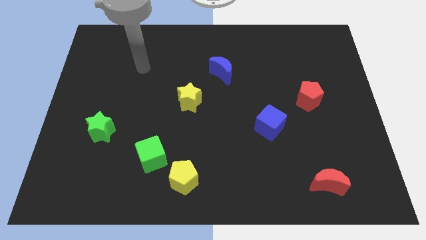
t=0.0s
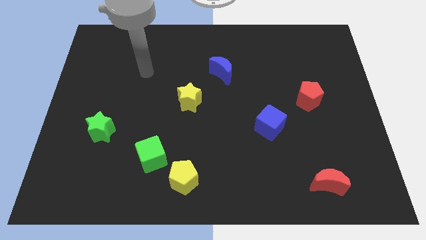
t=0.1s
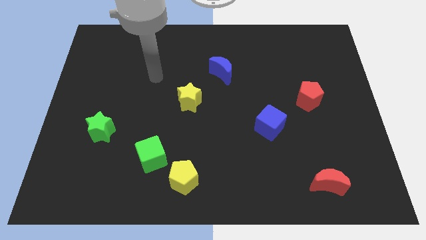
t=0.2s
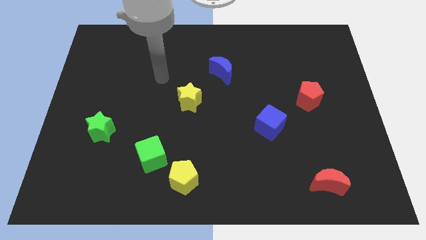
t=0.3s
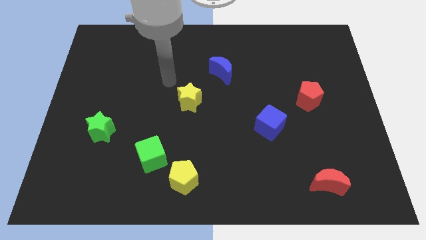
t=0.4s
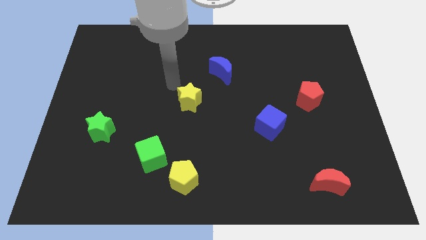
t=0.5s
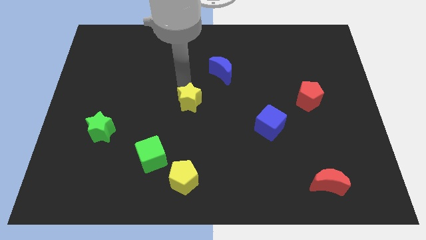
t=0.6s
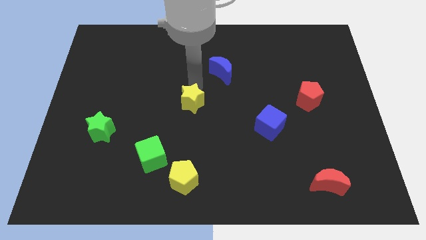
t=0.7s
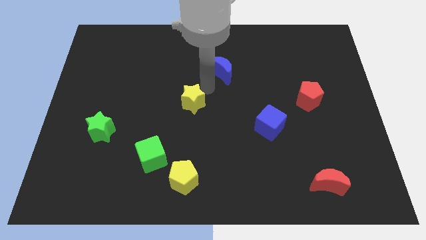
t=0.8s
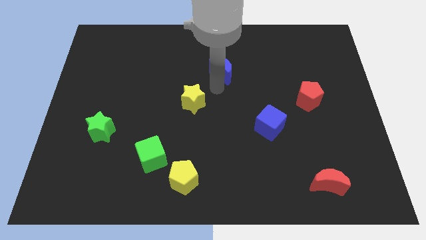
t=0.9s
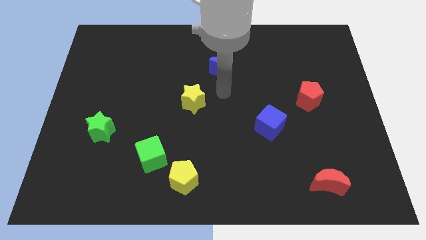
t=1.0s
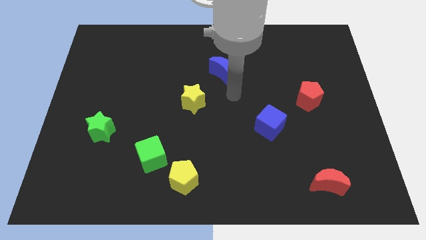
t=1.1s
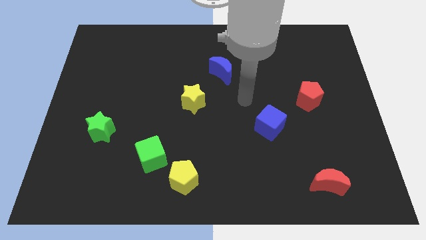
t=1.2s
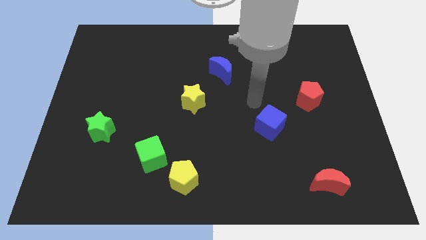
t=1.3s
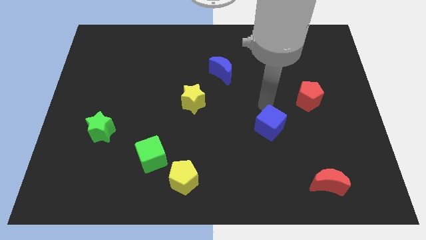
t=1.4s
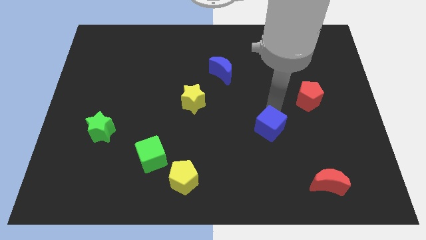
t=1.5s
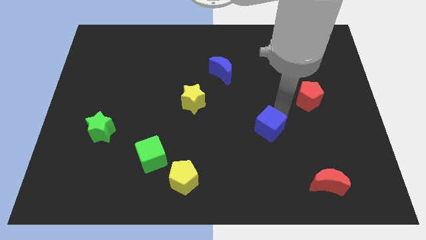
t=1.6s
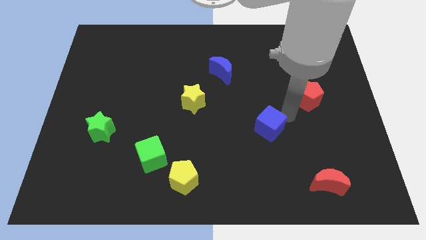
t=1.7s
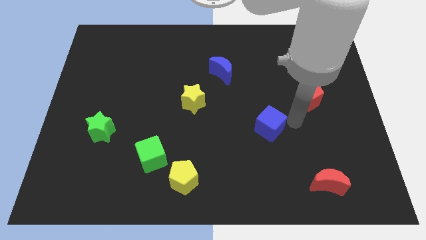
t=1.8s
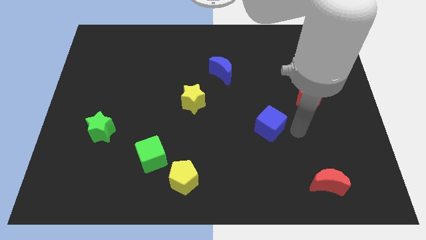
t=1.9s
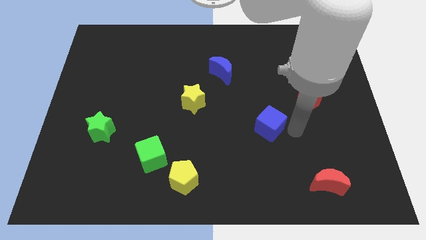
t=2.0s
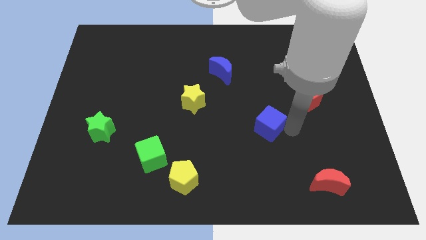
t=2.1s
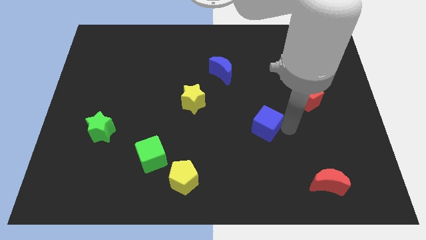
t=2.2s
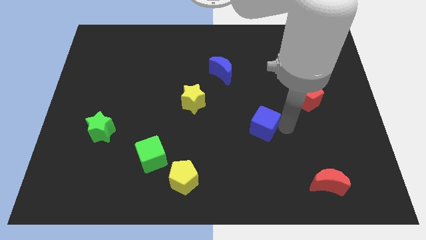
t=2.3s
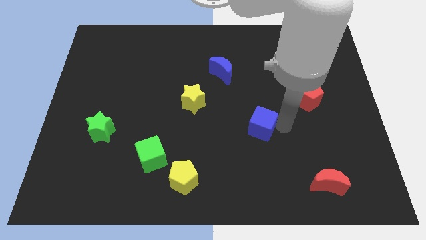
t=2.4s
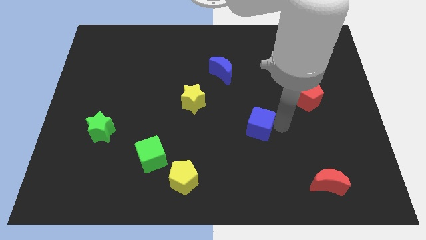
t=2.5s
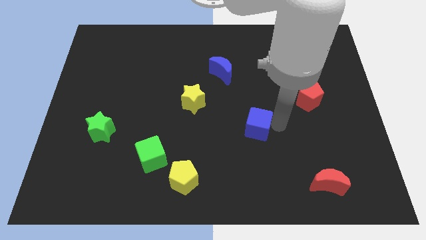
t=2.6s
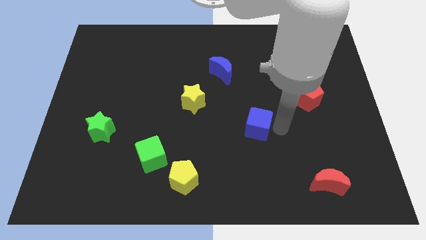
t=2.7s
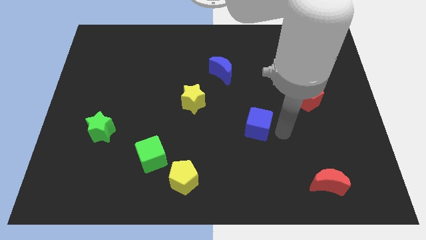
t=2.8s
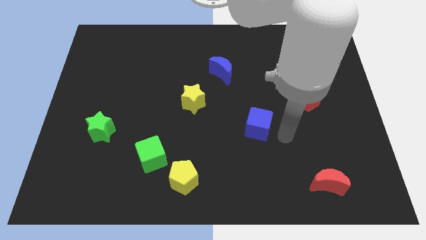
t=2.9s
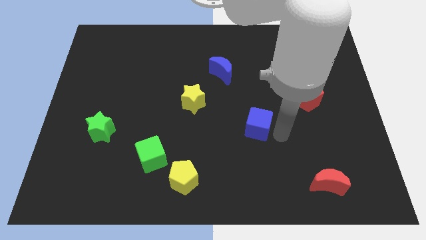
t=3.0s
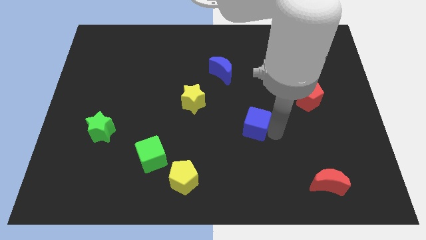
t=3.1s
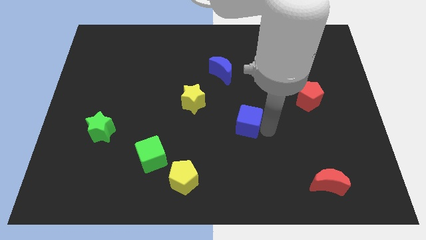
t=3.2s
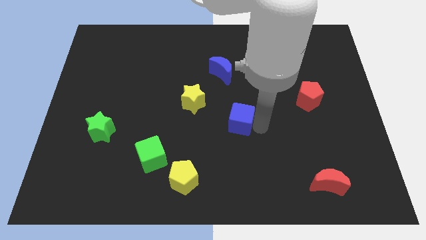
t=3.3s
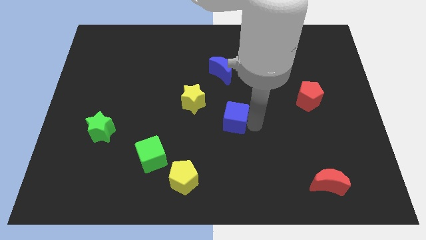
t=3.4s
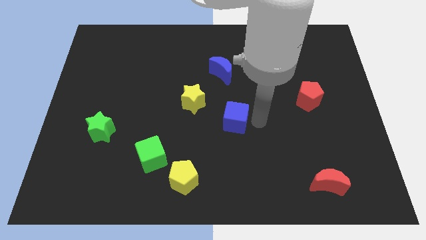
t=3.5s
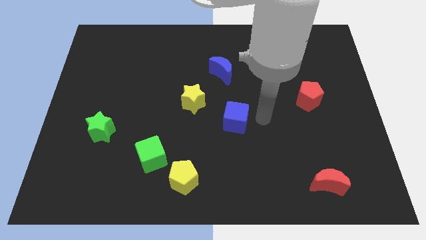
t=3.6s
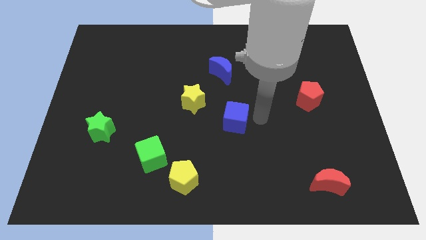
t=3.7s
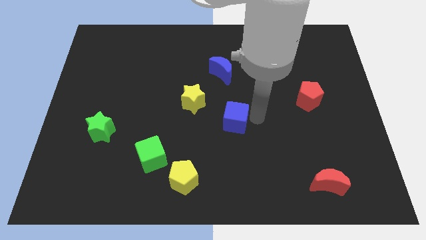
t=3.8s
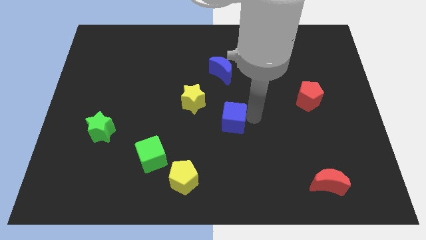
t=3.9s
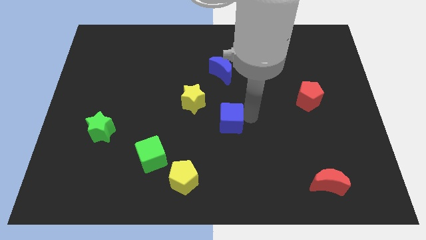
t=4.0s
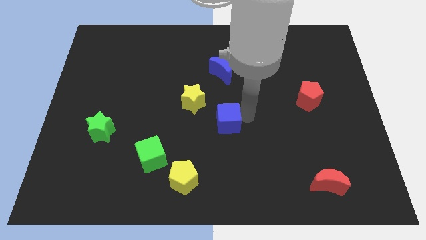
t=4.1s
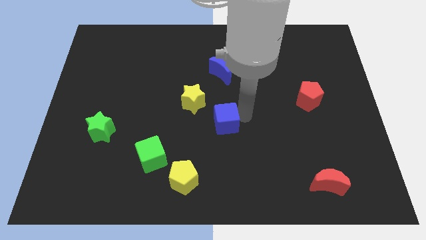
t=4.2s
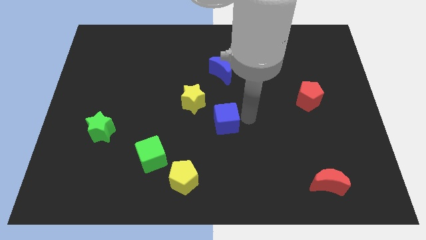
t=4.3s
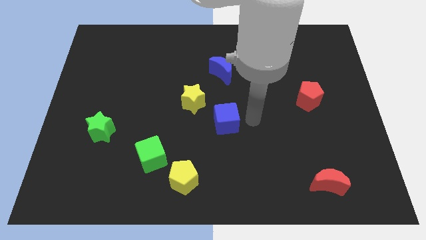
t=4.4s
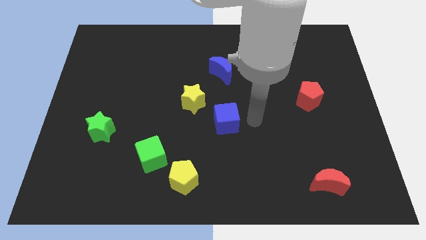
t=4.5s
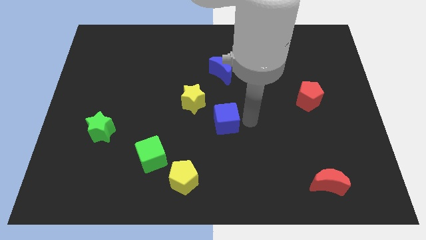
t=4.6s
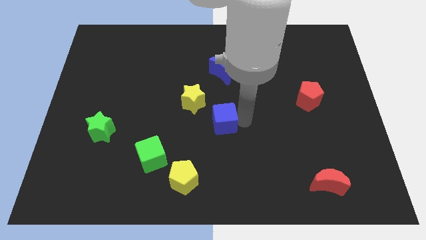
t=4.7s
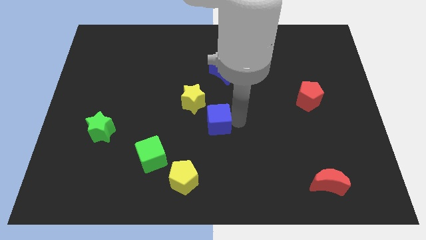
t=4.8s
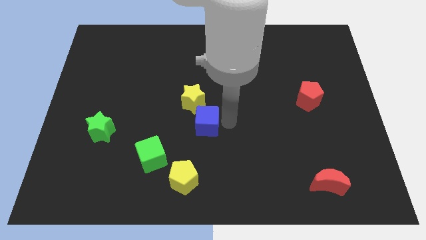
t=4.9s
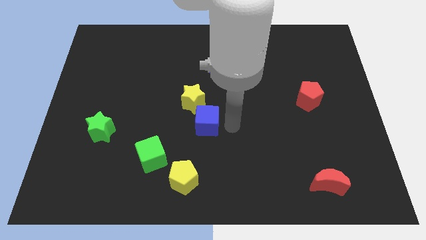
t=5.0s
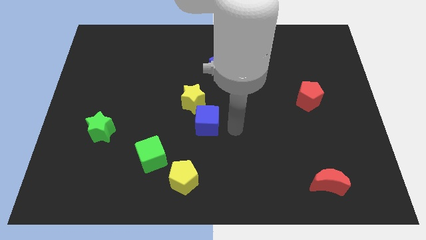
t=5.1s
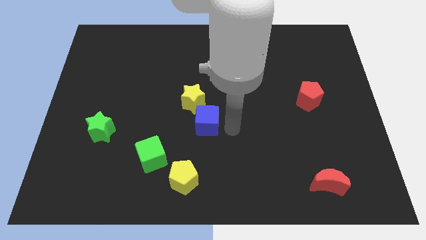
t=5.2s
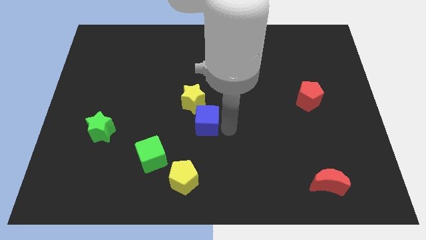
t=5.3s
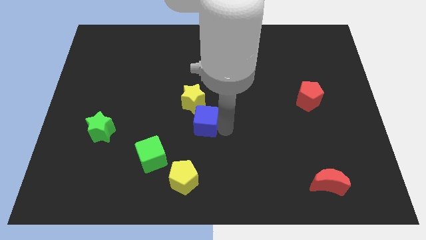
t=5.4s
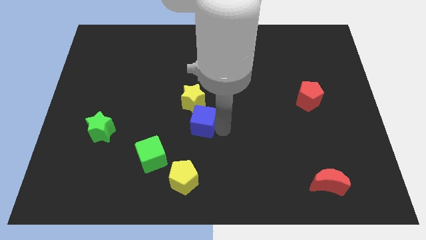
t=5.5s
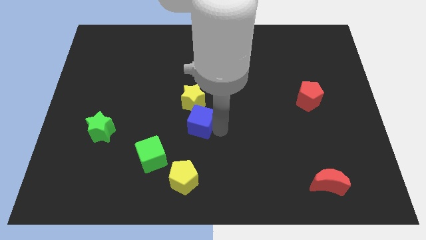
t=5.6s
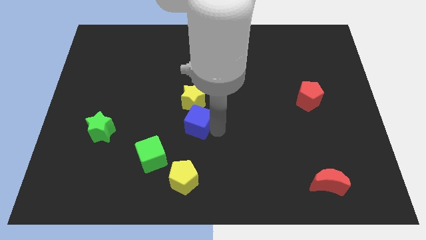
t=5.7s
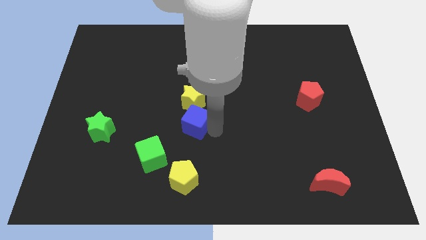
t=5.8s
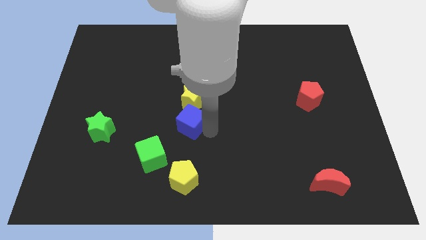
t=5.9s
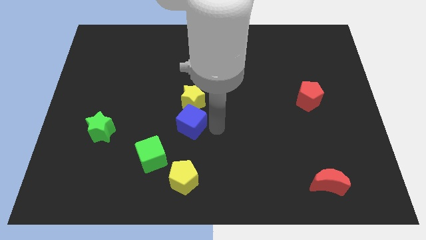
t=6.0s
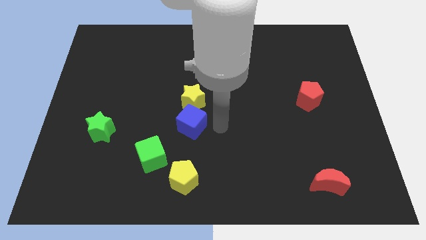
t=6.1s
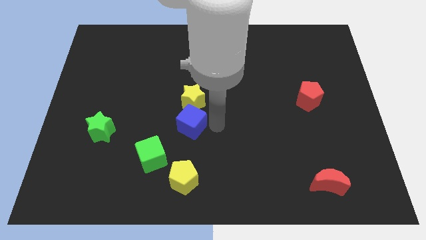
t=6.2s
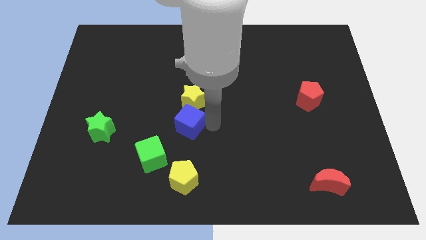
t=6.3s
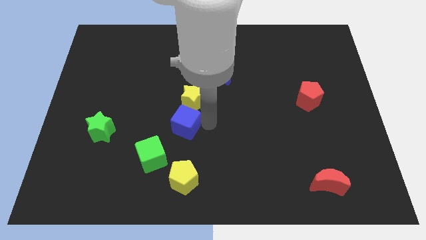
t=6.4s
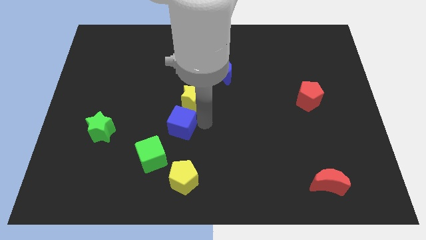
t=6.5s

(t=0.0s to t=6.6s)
move the blue cube to the left

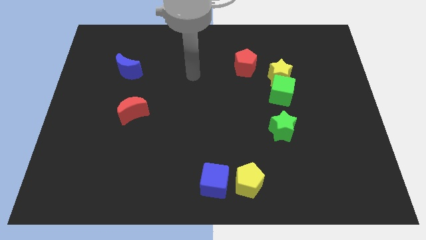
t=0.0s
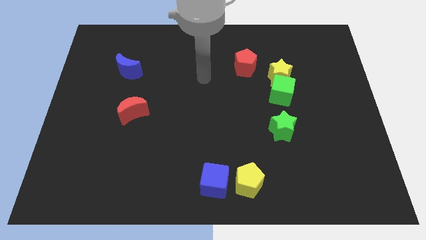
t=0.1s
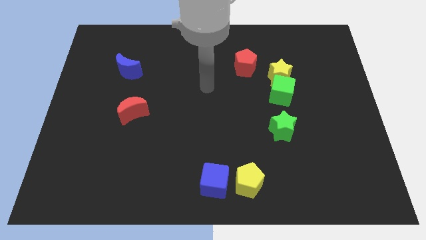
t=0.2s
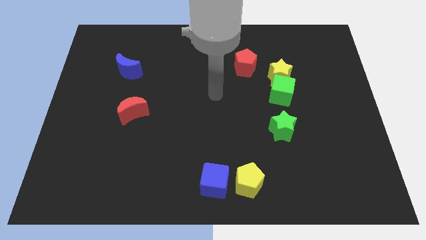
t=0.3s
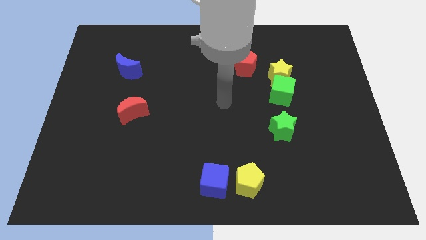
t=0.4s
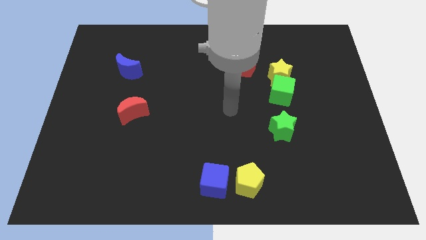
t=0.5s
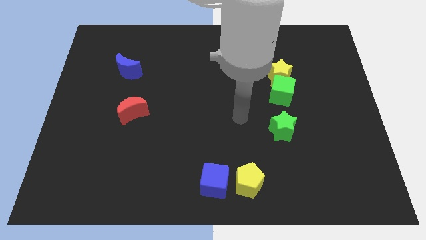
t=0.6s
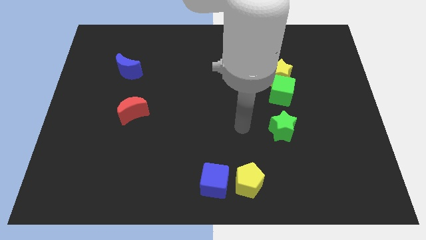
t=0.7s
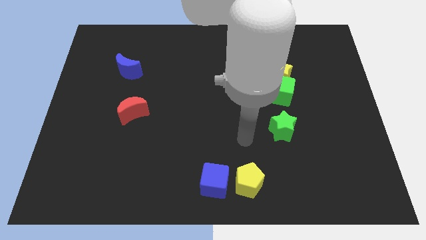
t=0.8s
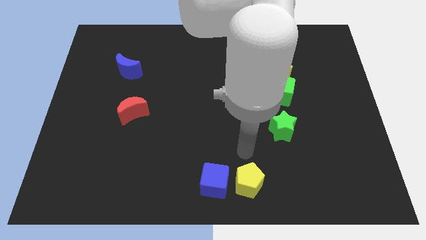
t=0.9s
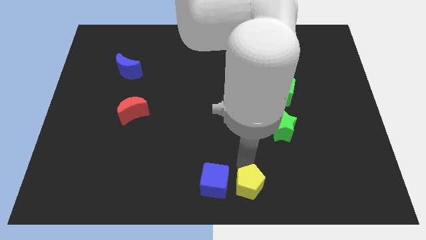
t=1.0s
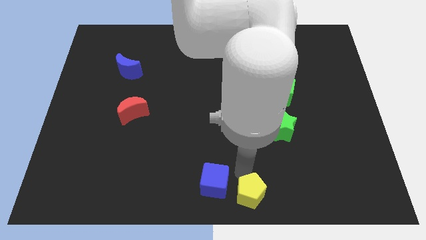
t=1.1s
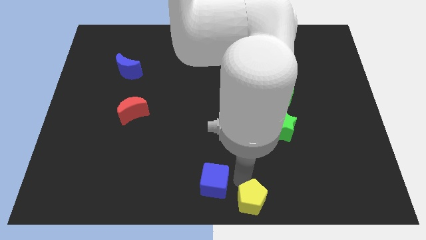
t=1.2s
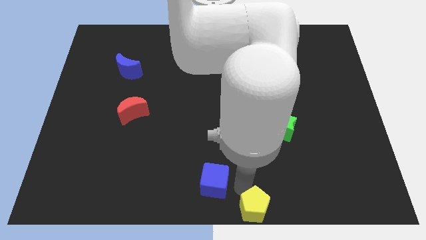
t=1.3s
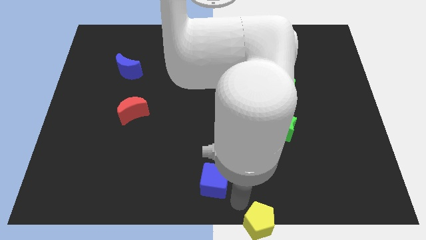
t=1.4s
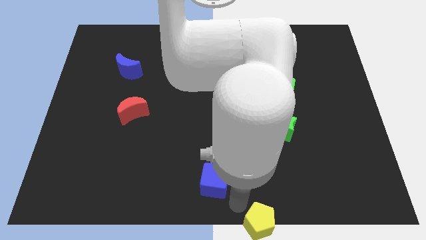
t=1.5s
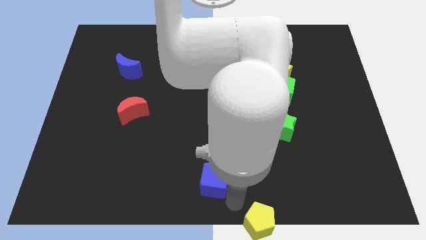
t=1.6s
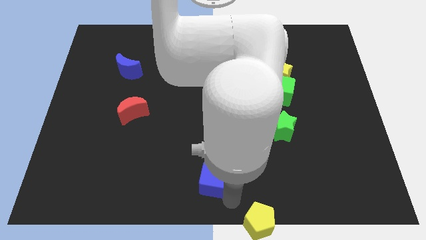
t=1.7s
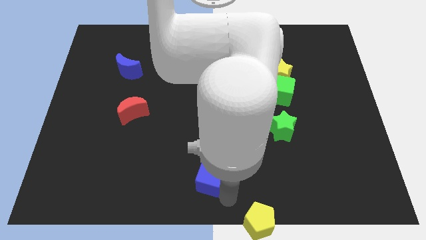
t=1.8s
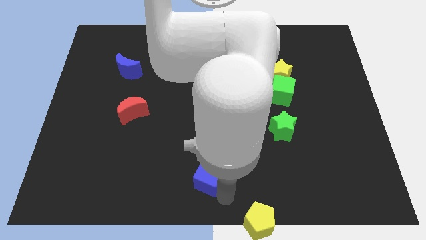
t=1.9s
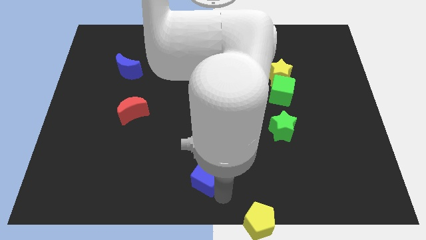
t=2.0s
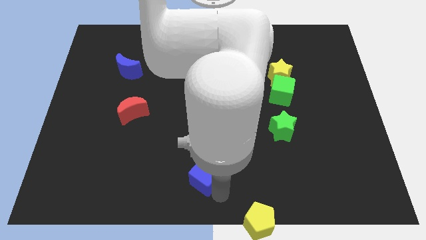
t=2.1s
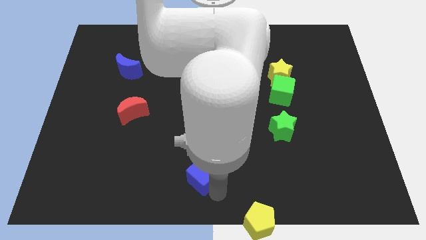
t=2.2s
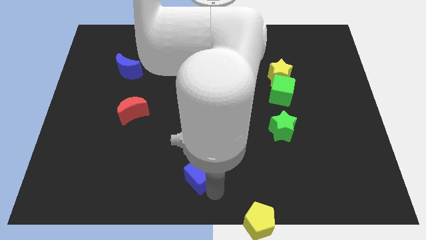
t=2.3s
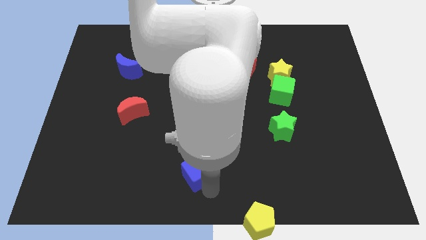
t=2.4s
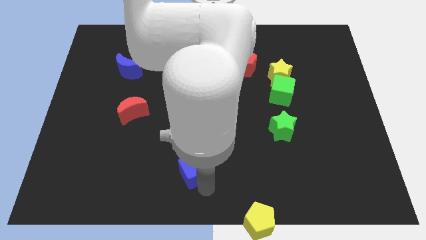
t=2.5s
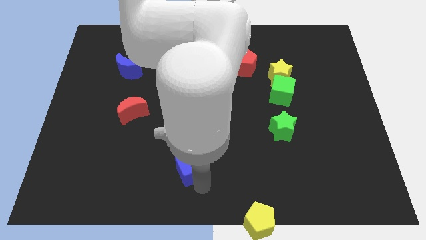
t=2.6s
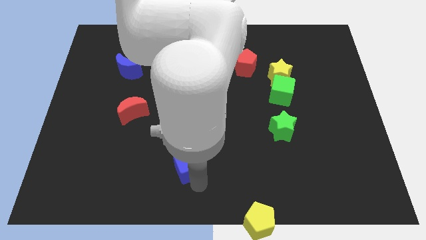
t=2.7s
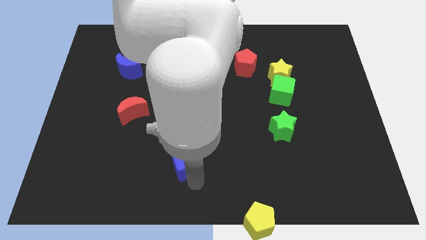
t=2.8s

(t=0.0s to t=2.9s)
move the blue cube somewhat up and then left
